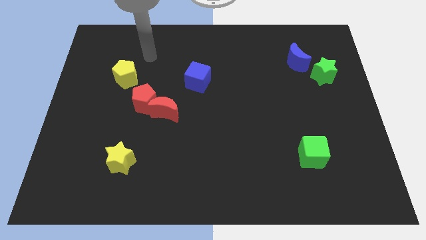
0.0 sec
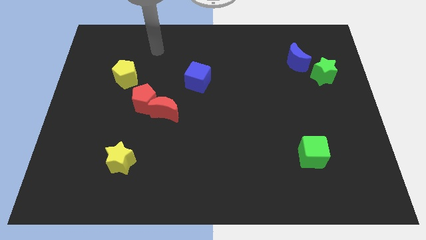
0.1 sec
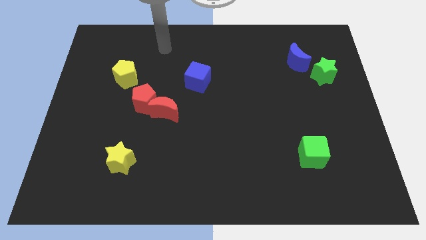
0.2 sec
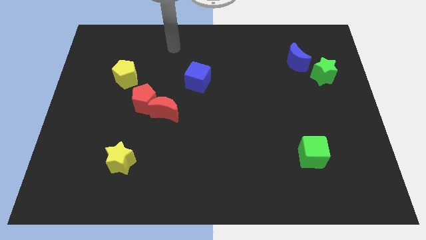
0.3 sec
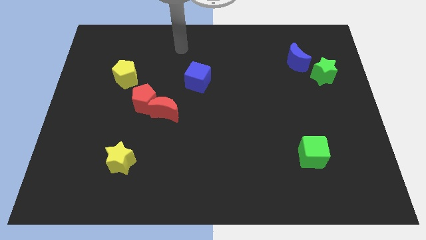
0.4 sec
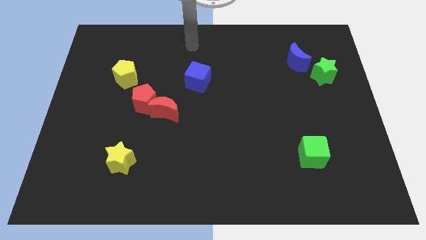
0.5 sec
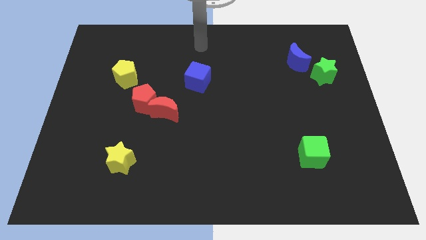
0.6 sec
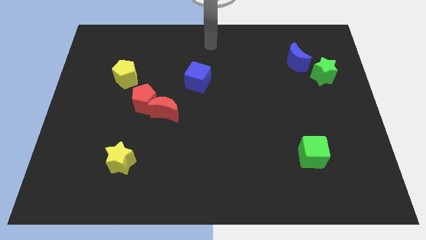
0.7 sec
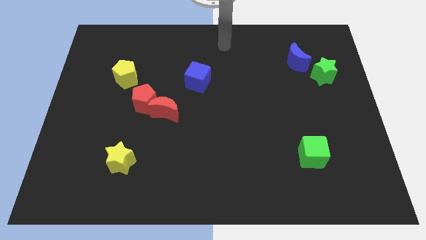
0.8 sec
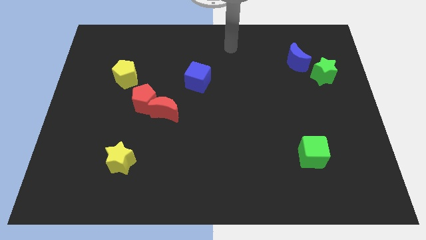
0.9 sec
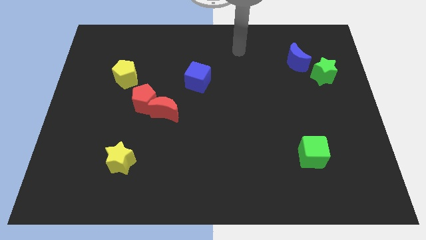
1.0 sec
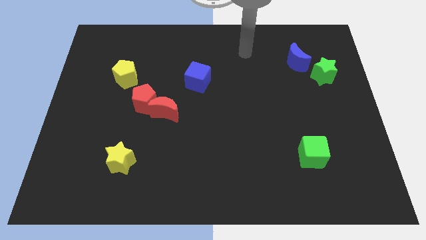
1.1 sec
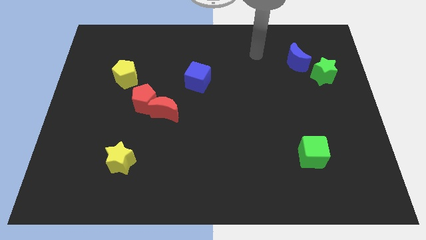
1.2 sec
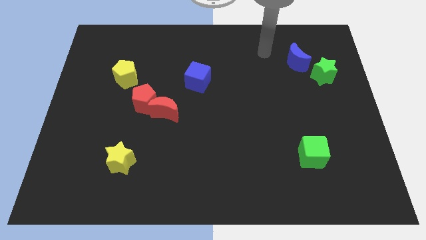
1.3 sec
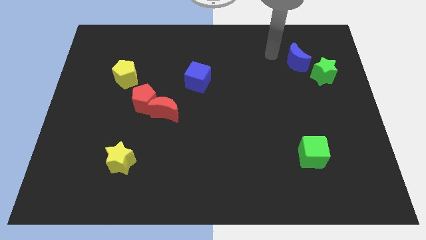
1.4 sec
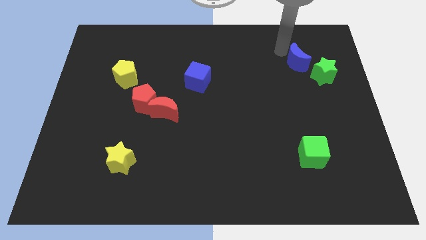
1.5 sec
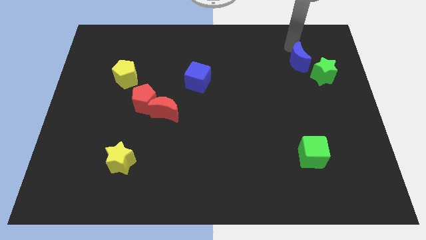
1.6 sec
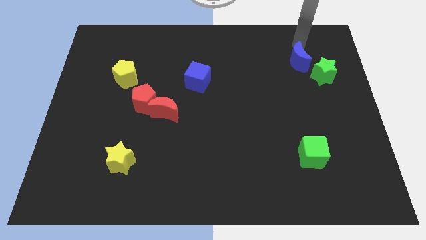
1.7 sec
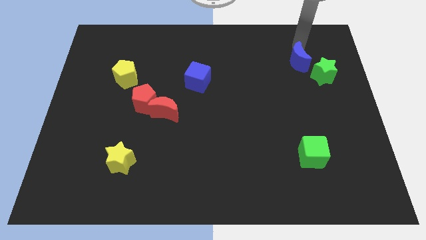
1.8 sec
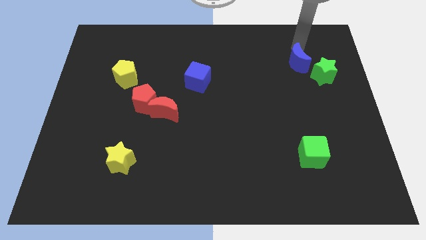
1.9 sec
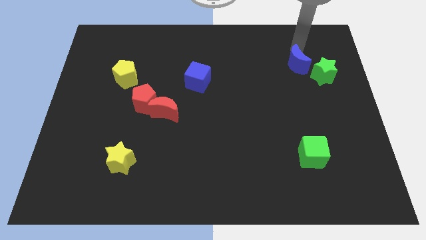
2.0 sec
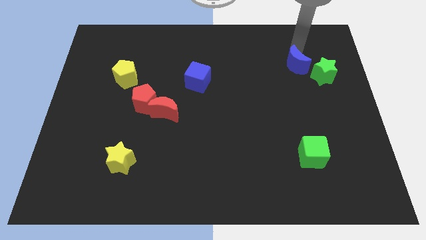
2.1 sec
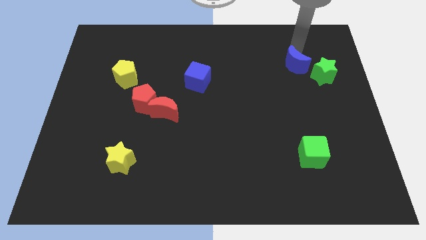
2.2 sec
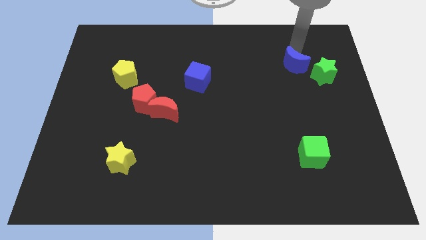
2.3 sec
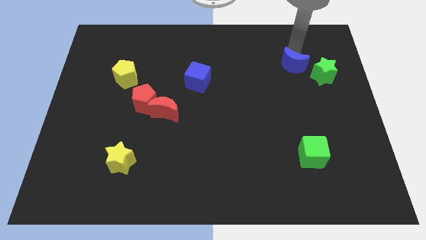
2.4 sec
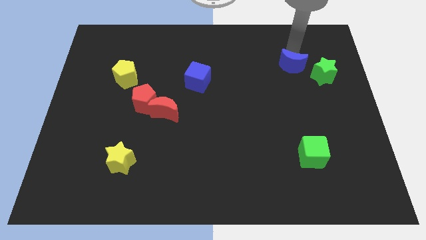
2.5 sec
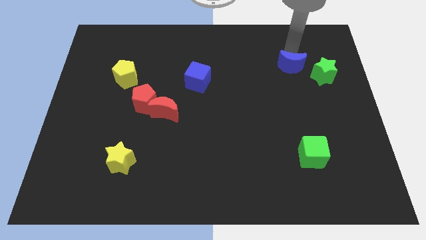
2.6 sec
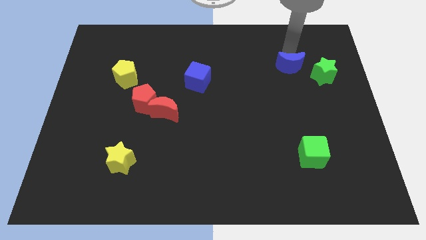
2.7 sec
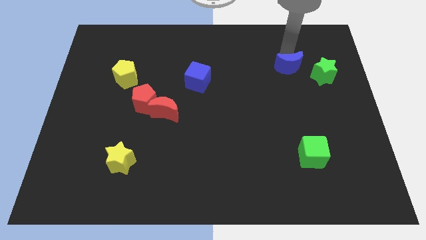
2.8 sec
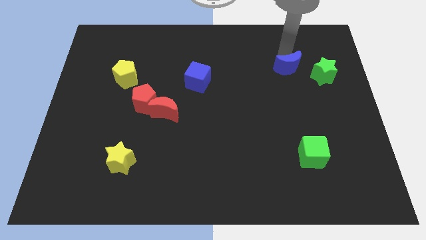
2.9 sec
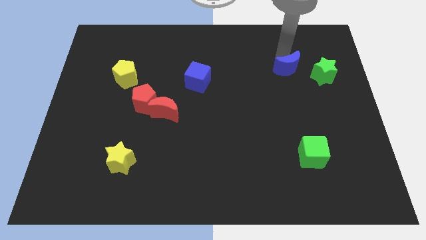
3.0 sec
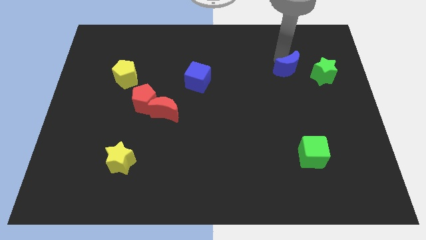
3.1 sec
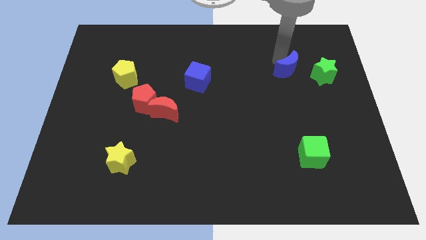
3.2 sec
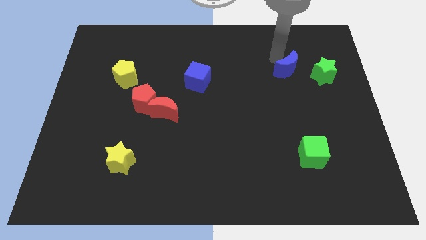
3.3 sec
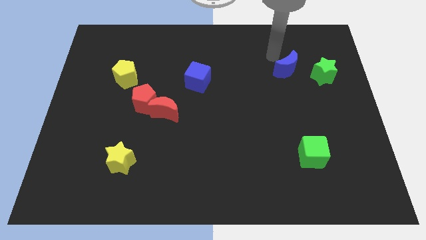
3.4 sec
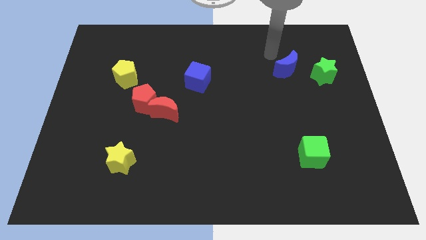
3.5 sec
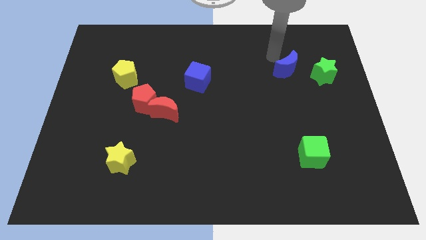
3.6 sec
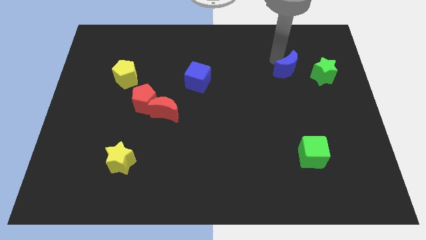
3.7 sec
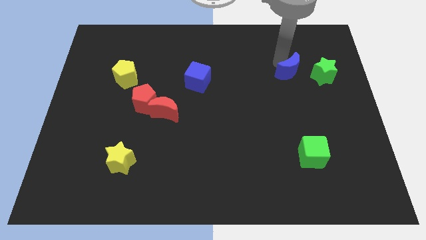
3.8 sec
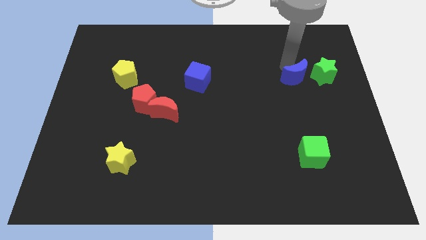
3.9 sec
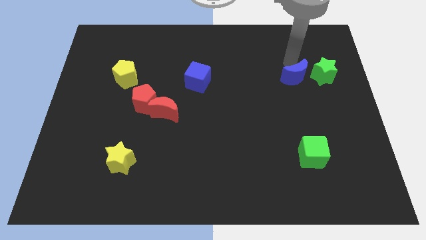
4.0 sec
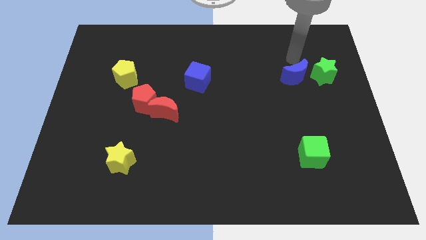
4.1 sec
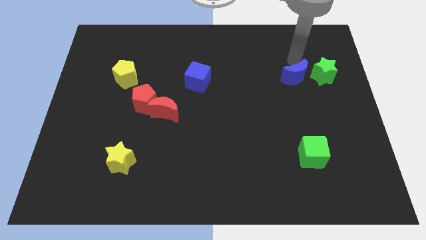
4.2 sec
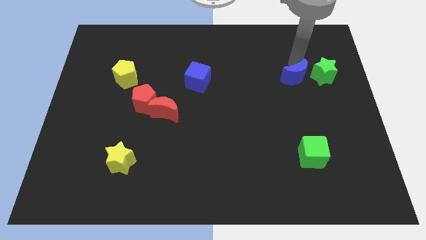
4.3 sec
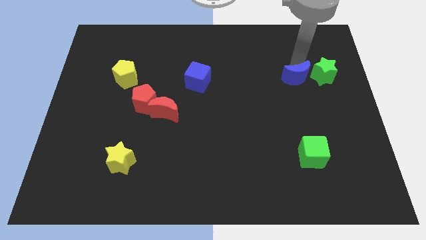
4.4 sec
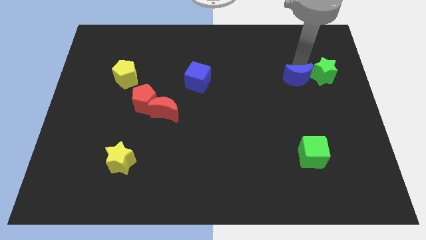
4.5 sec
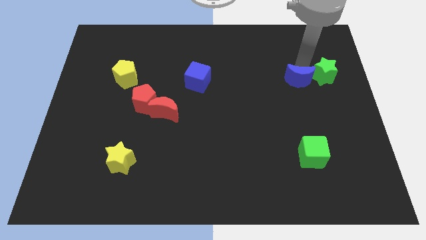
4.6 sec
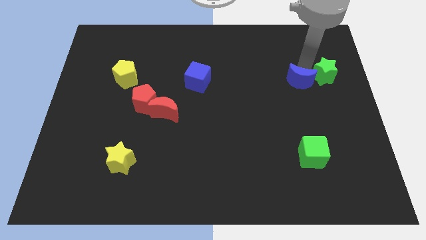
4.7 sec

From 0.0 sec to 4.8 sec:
slide the blue moon downwards a little

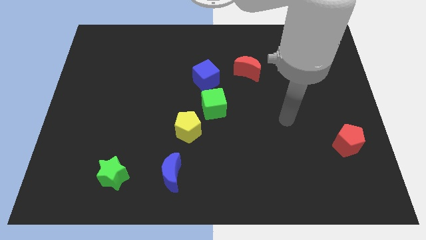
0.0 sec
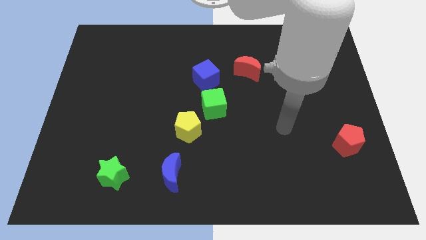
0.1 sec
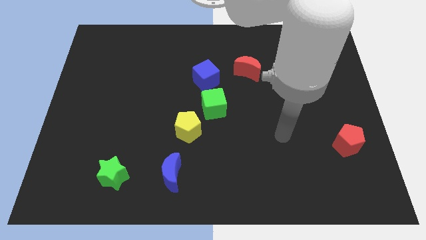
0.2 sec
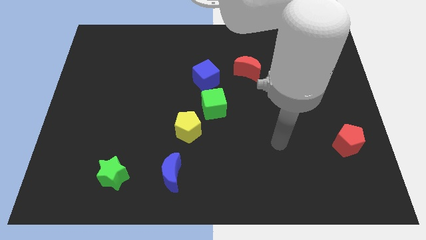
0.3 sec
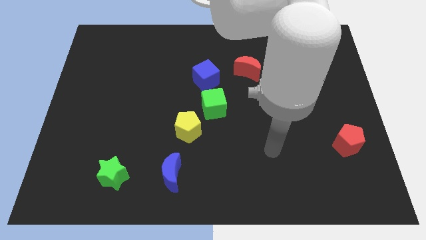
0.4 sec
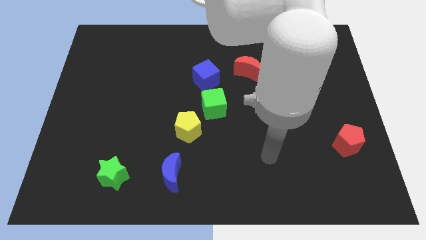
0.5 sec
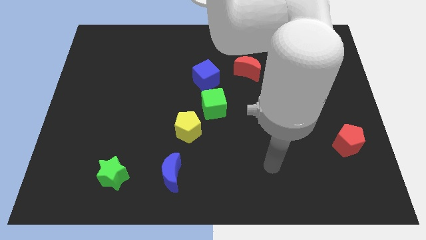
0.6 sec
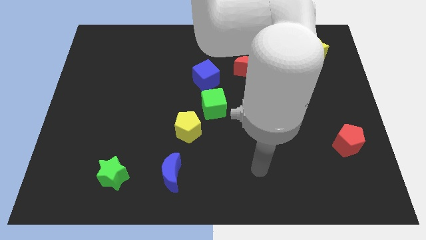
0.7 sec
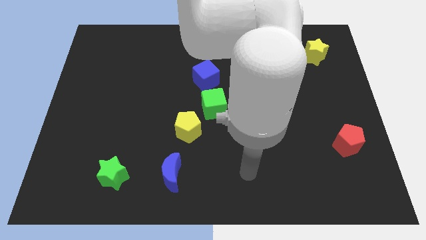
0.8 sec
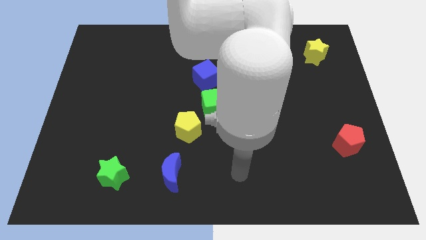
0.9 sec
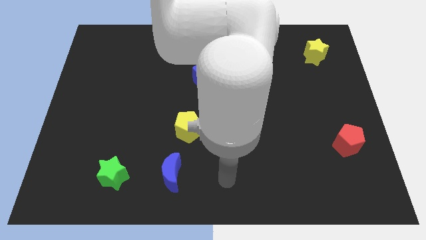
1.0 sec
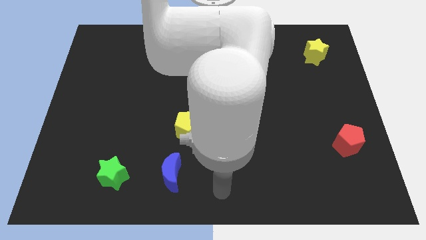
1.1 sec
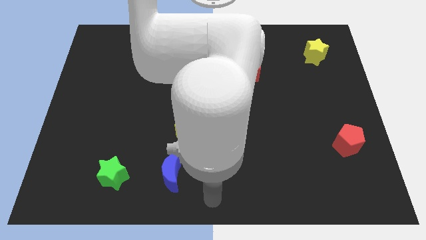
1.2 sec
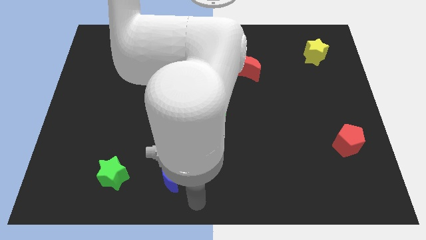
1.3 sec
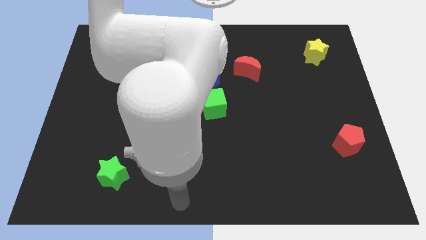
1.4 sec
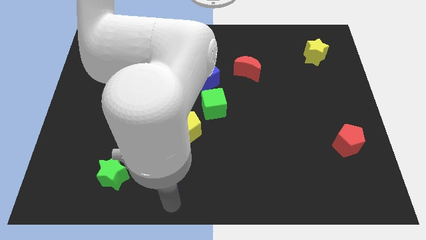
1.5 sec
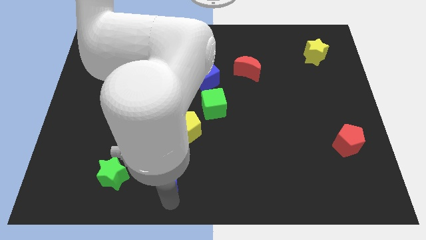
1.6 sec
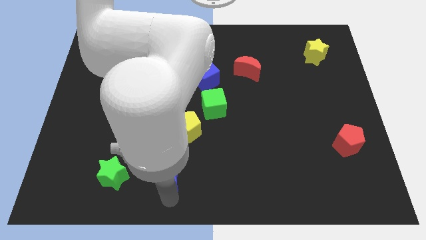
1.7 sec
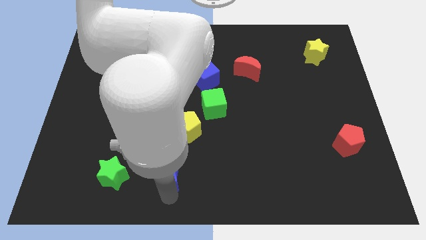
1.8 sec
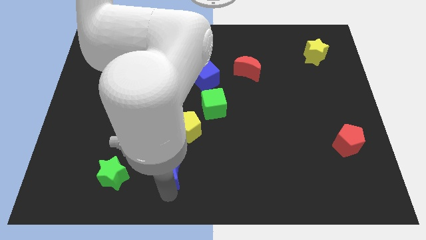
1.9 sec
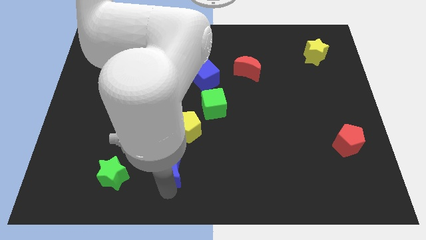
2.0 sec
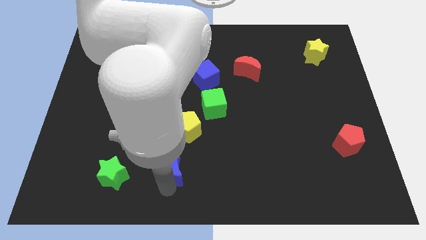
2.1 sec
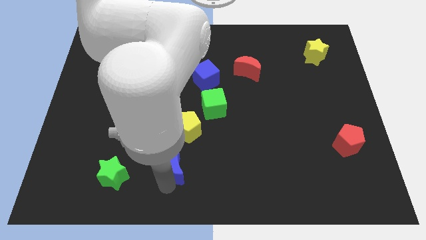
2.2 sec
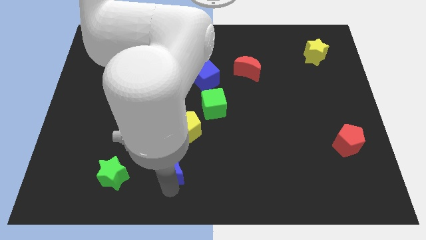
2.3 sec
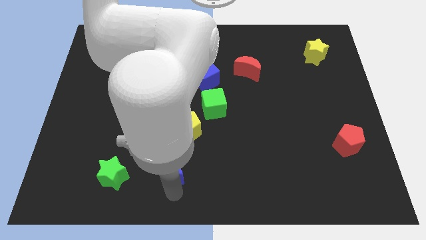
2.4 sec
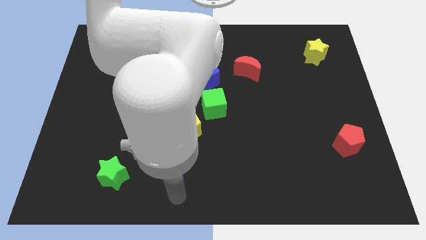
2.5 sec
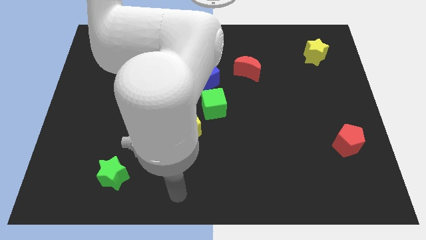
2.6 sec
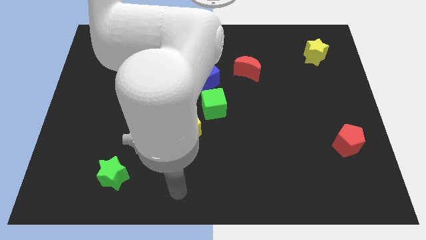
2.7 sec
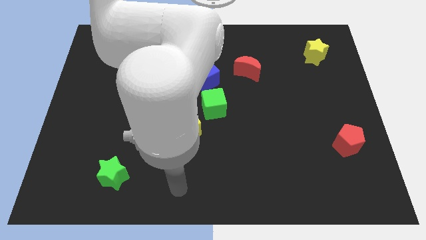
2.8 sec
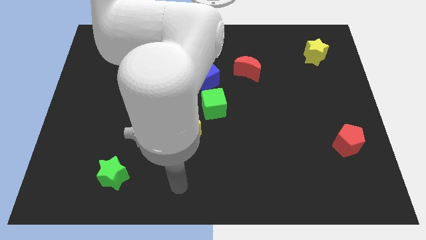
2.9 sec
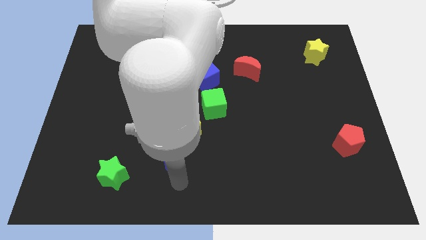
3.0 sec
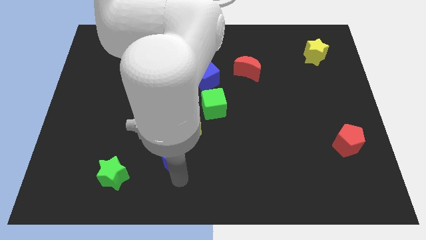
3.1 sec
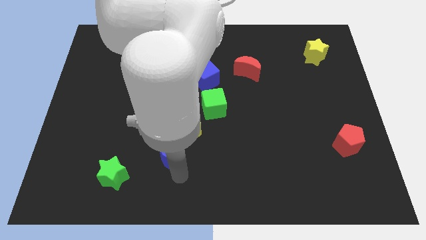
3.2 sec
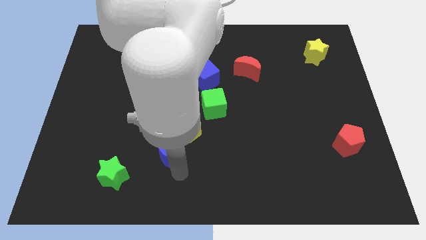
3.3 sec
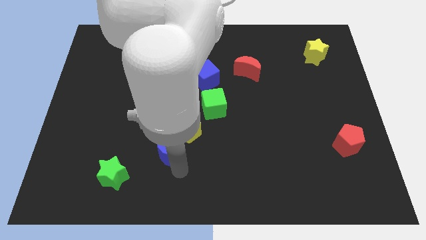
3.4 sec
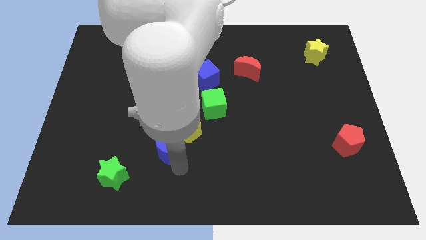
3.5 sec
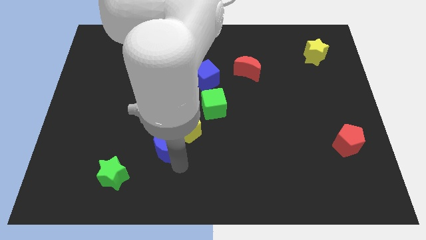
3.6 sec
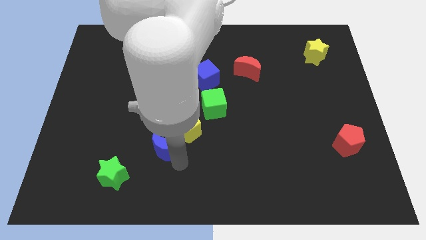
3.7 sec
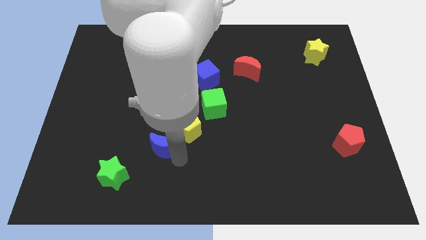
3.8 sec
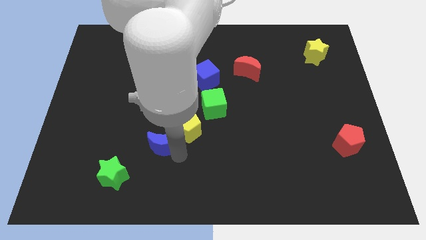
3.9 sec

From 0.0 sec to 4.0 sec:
slightly slide the blue moon upwards
